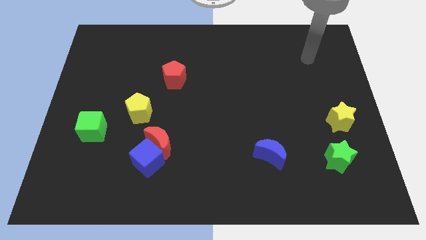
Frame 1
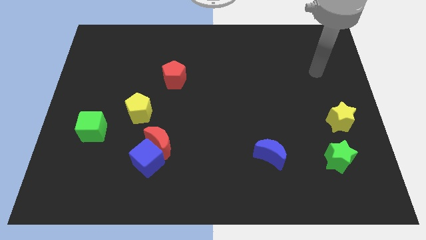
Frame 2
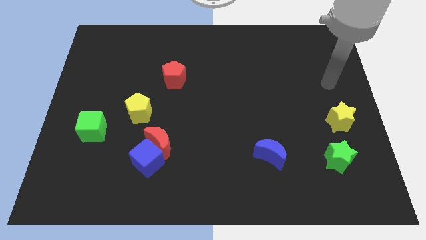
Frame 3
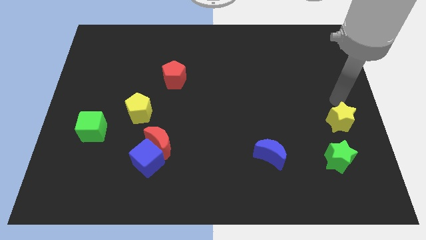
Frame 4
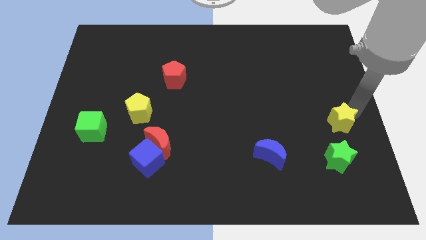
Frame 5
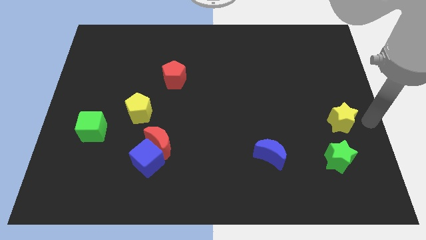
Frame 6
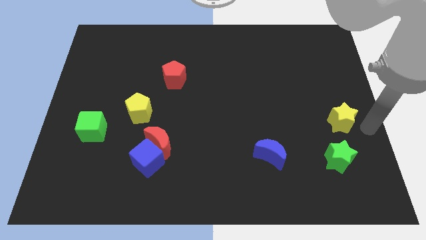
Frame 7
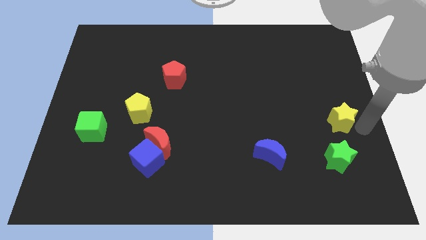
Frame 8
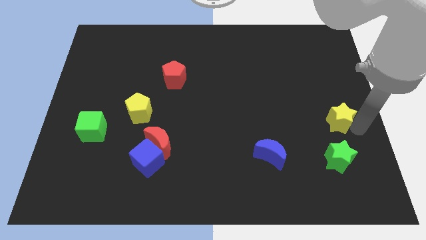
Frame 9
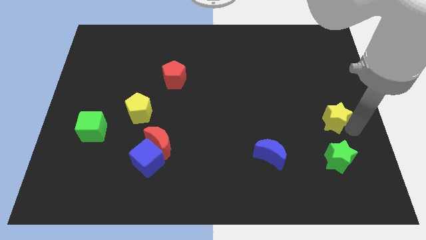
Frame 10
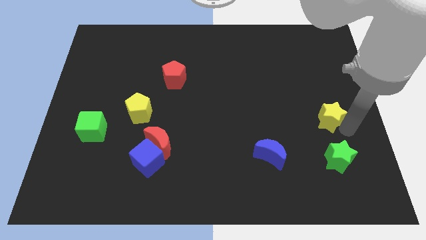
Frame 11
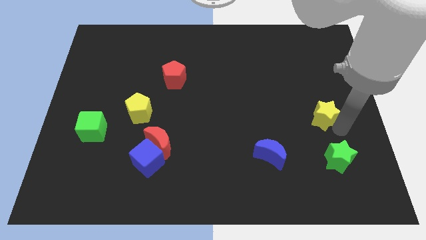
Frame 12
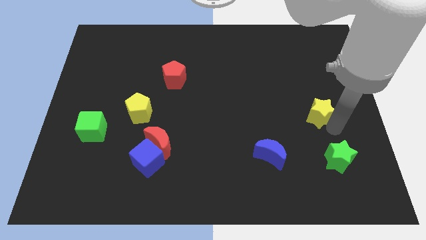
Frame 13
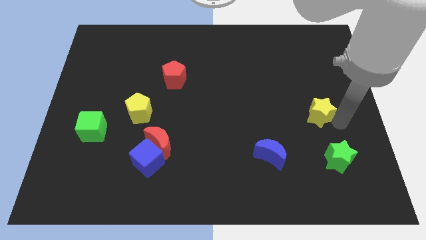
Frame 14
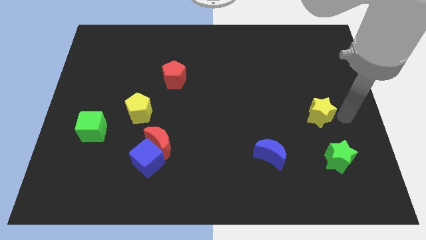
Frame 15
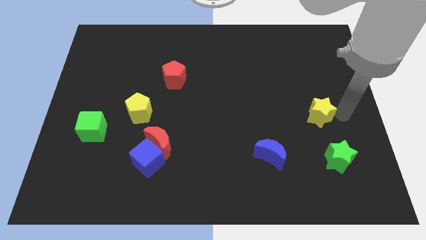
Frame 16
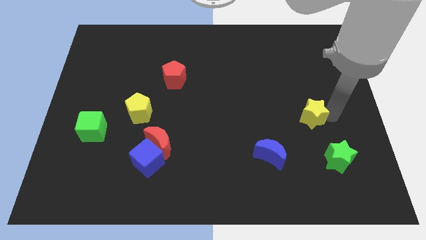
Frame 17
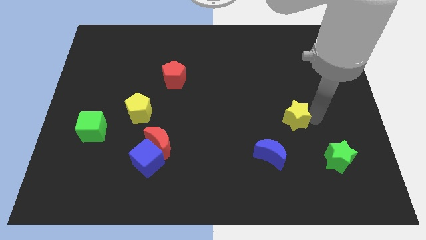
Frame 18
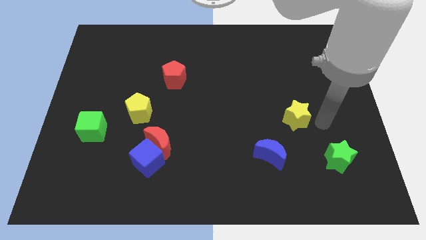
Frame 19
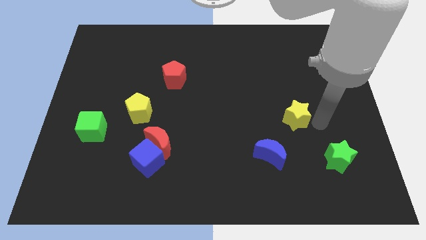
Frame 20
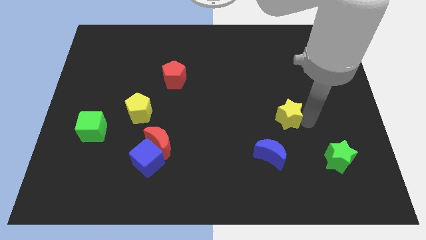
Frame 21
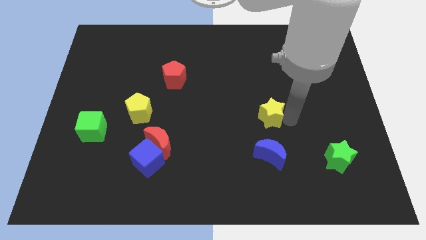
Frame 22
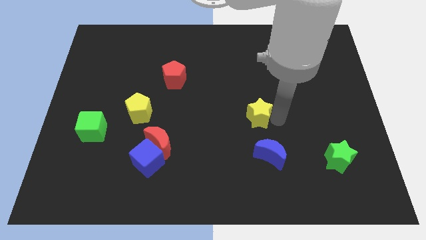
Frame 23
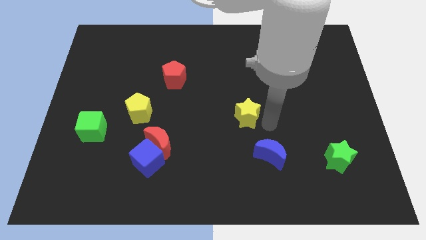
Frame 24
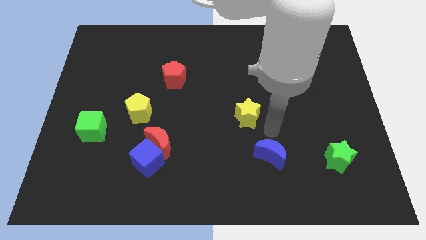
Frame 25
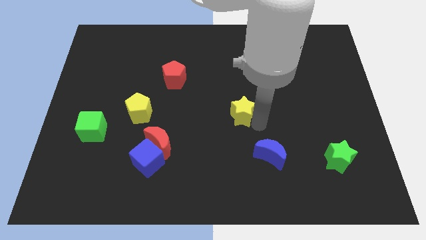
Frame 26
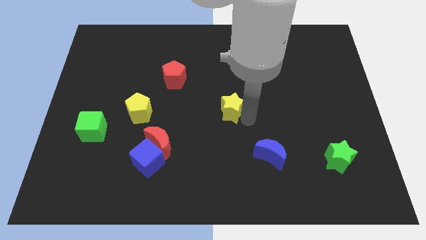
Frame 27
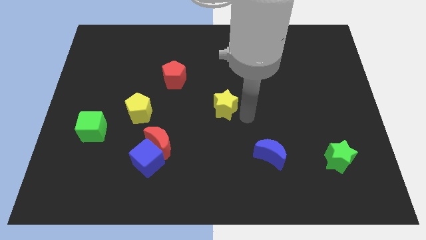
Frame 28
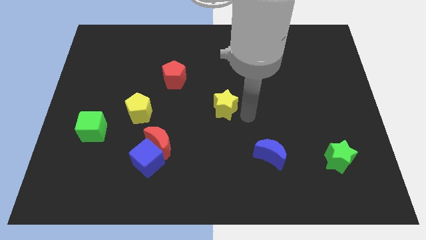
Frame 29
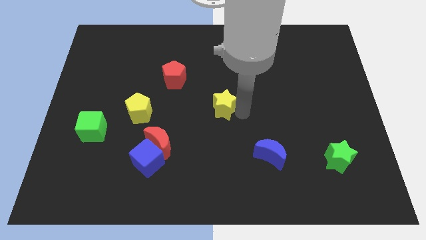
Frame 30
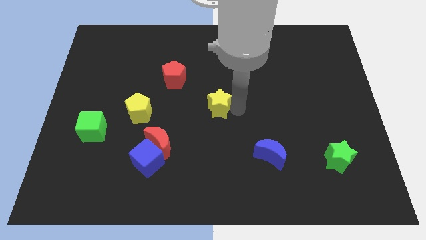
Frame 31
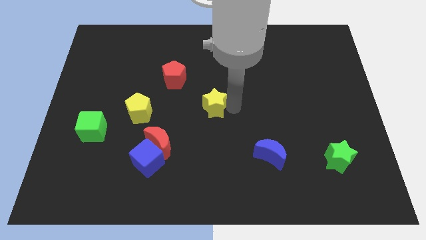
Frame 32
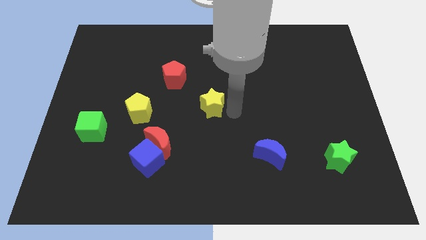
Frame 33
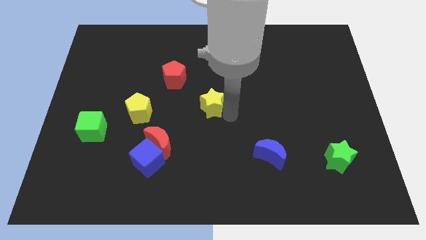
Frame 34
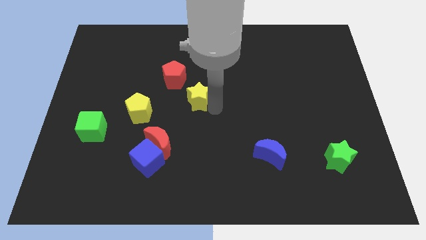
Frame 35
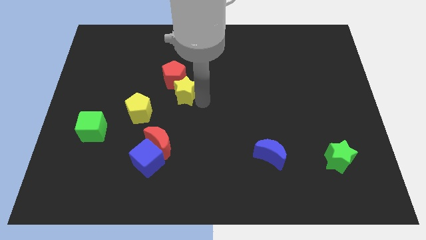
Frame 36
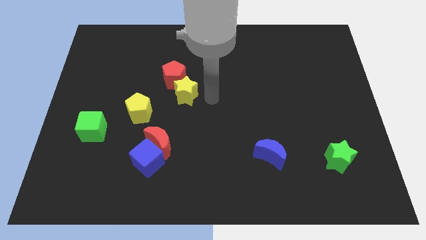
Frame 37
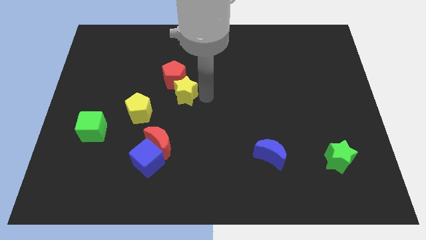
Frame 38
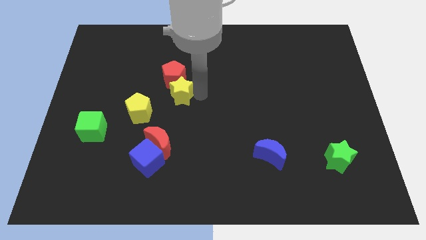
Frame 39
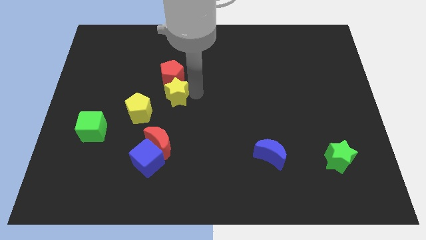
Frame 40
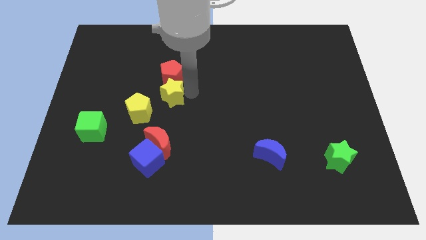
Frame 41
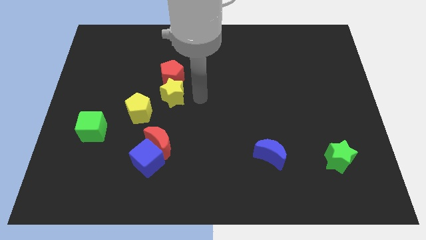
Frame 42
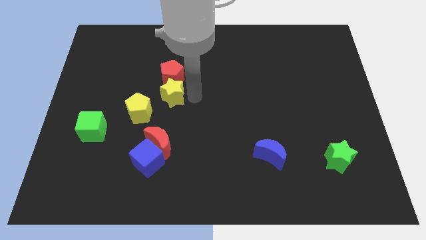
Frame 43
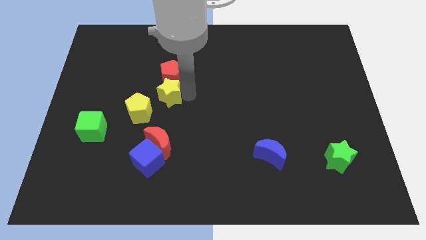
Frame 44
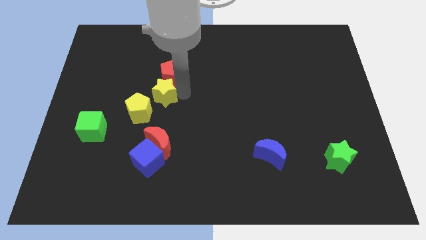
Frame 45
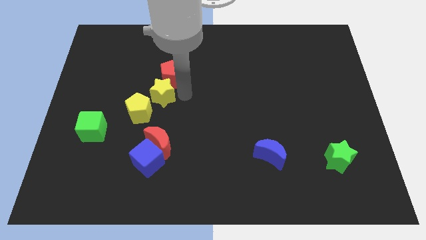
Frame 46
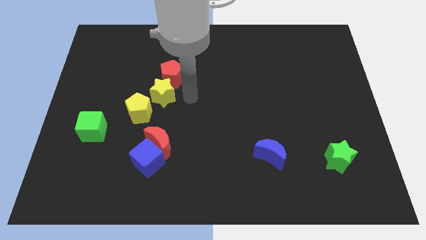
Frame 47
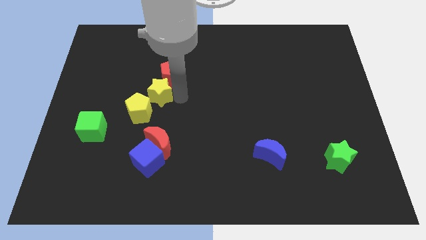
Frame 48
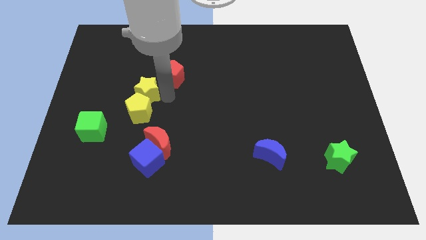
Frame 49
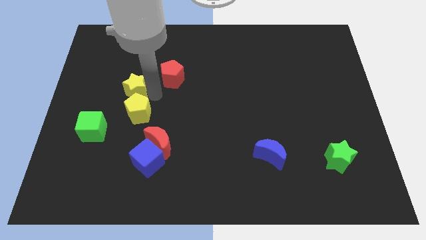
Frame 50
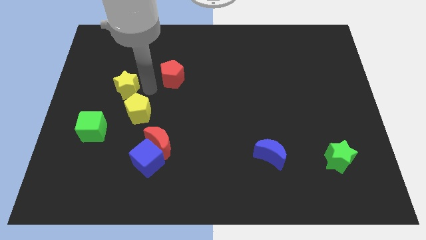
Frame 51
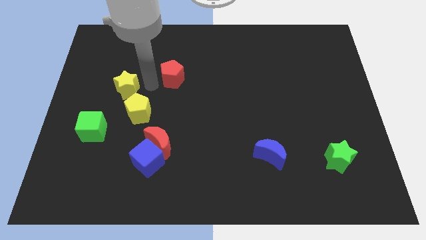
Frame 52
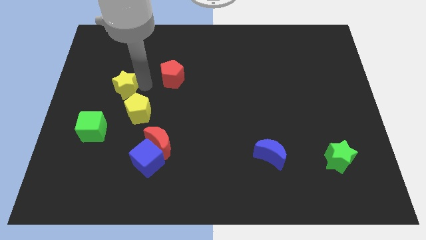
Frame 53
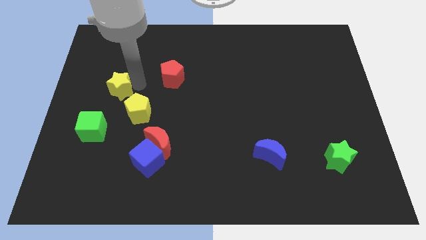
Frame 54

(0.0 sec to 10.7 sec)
push the yellow star to the top side of the green cube

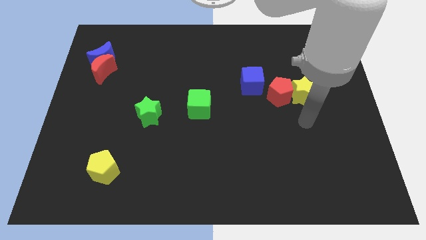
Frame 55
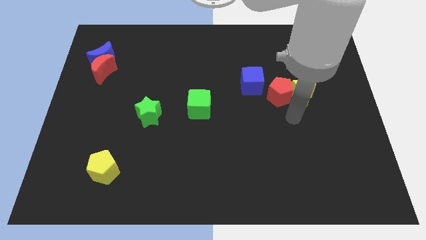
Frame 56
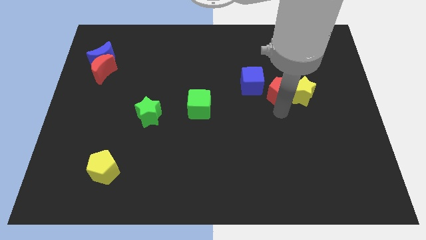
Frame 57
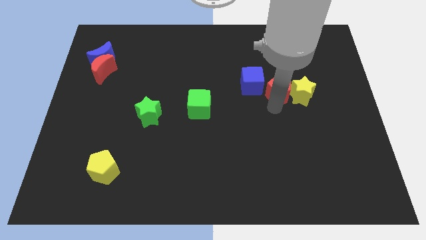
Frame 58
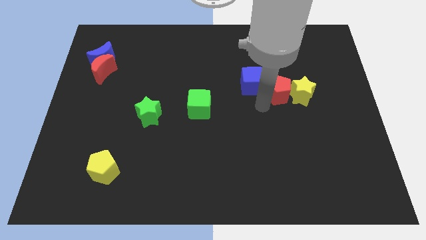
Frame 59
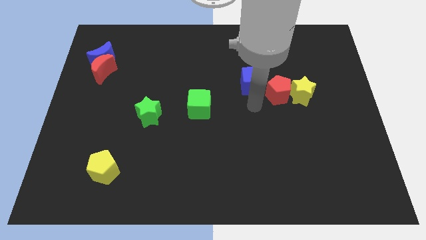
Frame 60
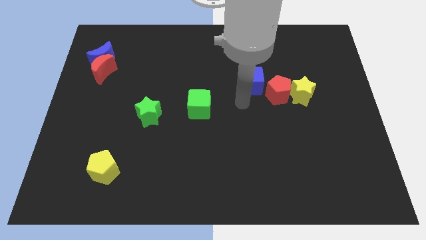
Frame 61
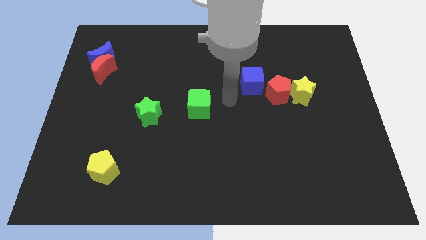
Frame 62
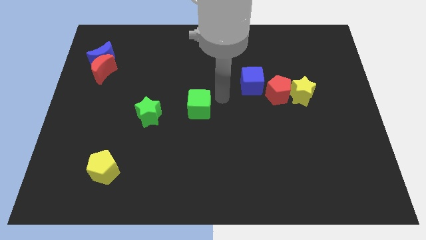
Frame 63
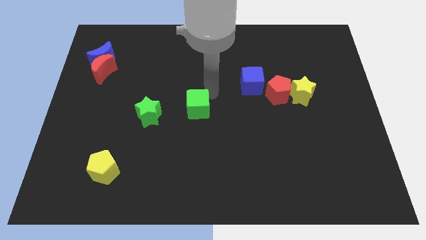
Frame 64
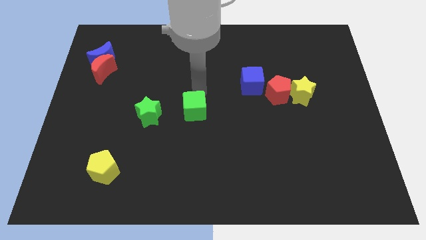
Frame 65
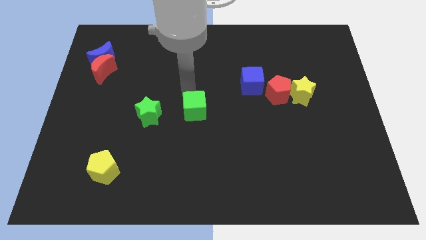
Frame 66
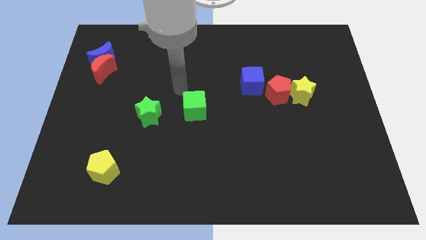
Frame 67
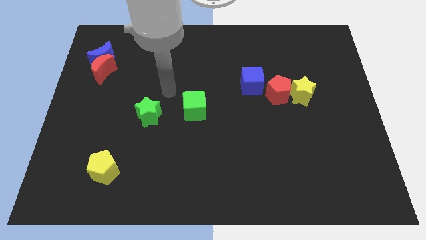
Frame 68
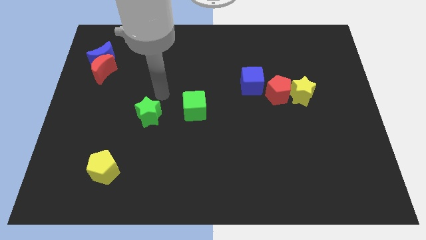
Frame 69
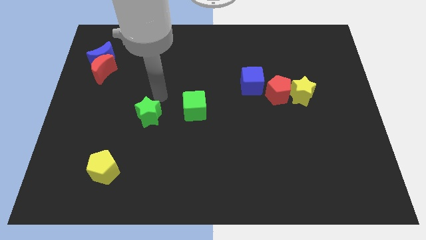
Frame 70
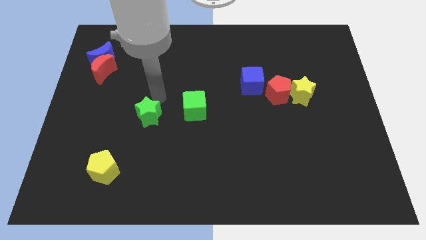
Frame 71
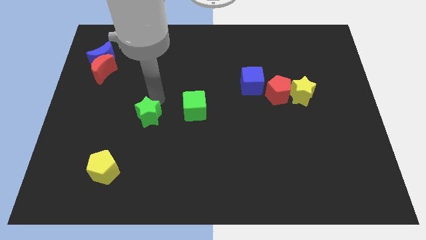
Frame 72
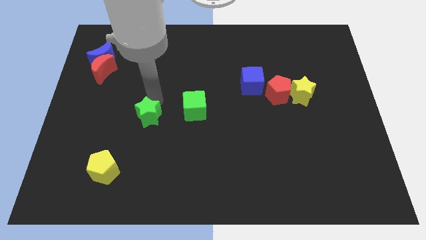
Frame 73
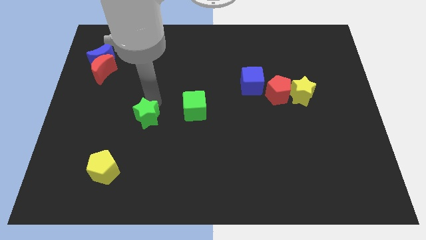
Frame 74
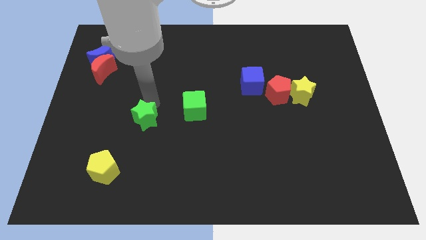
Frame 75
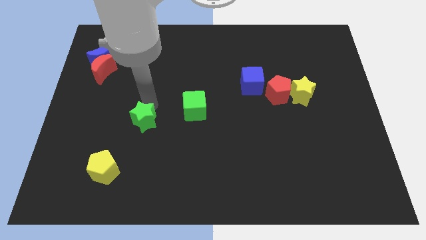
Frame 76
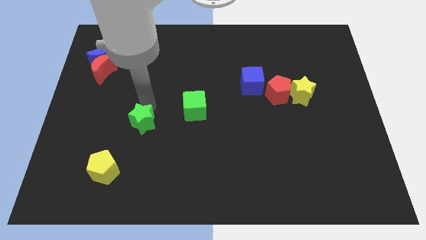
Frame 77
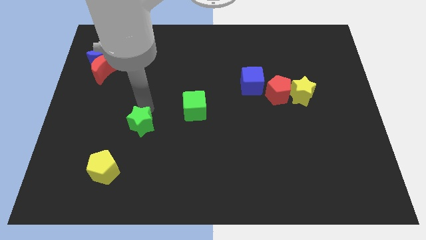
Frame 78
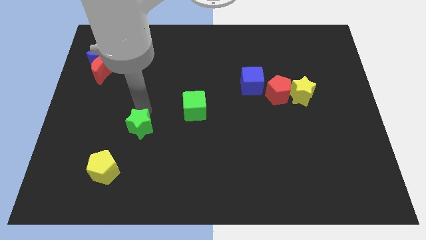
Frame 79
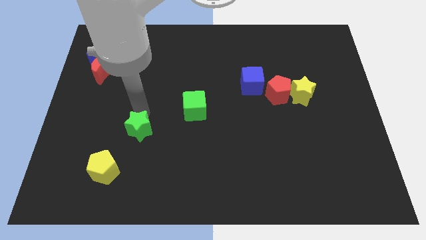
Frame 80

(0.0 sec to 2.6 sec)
put the green star to the top right side of the yellow pentagon

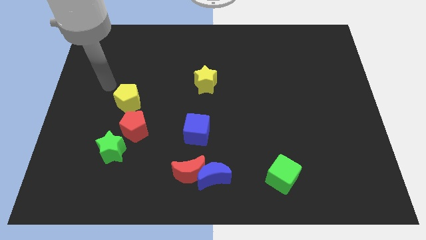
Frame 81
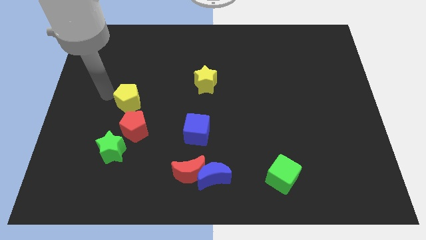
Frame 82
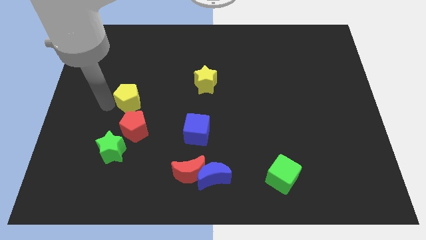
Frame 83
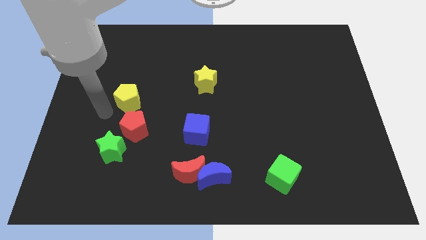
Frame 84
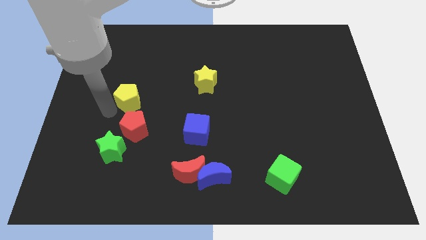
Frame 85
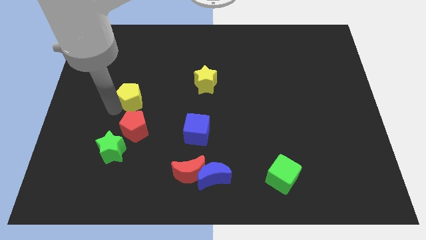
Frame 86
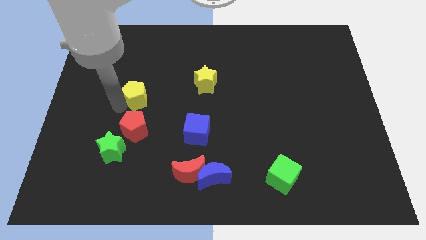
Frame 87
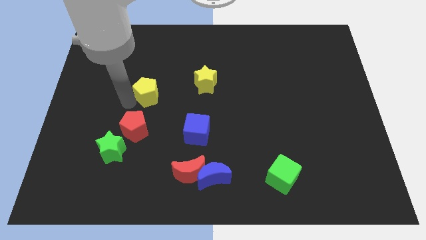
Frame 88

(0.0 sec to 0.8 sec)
push the yellow pentagon left of the yellow star
